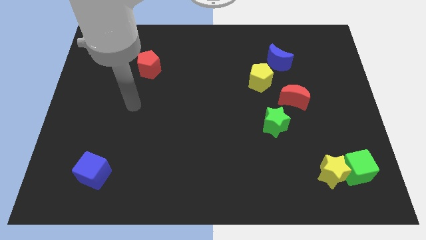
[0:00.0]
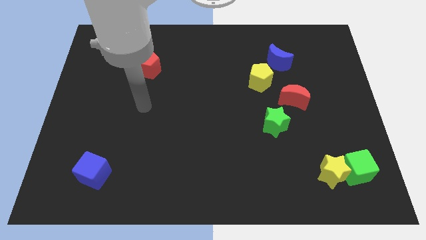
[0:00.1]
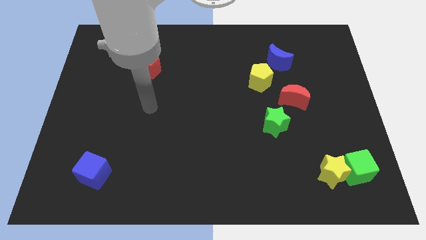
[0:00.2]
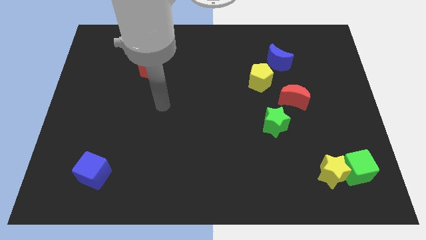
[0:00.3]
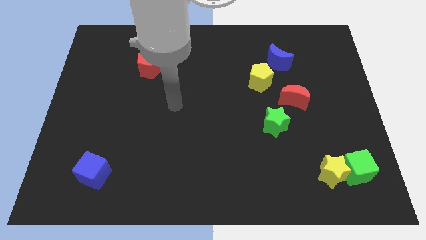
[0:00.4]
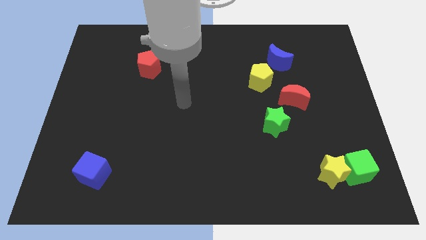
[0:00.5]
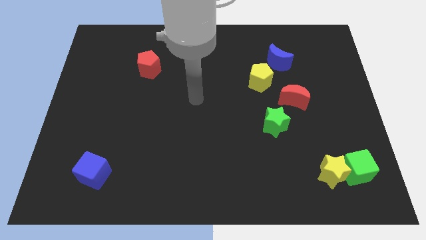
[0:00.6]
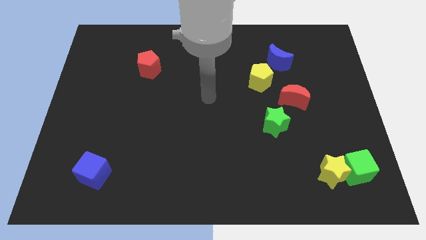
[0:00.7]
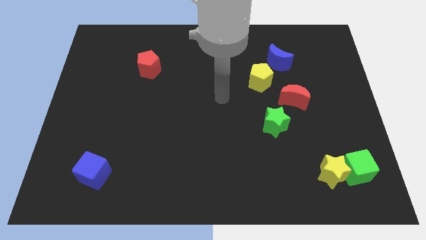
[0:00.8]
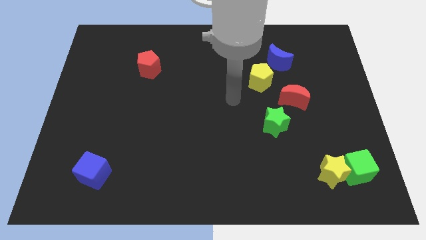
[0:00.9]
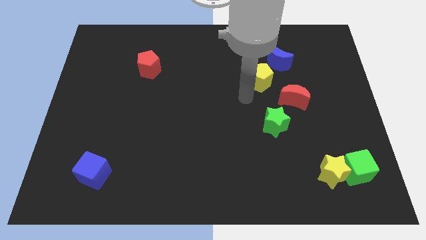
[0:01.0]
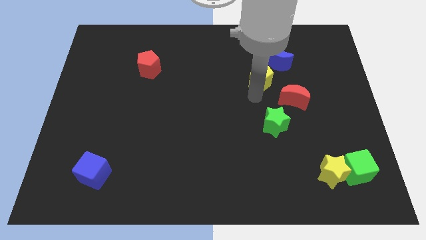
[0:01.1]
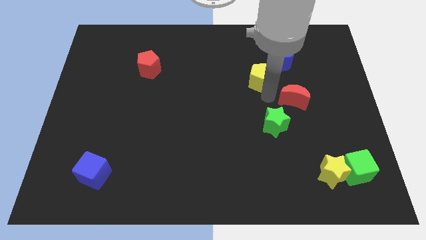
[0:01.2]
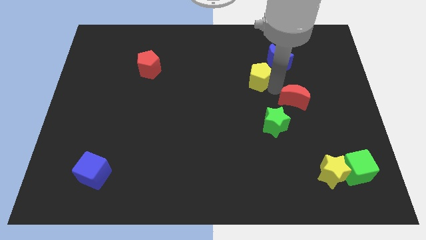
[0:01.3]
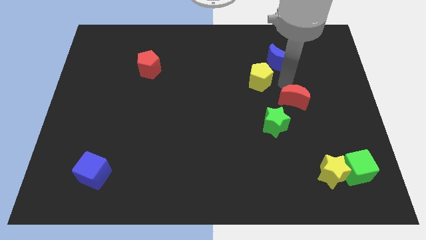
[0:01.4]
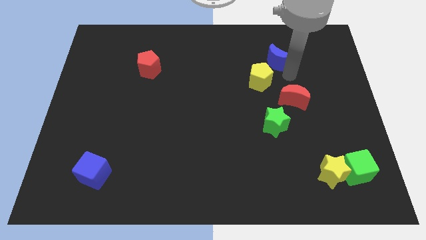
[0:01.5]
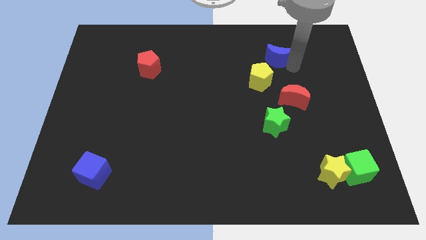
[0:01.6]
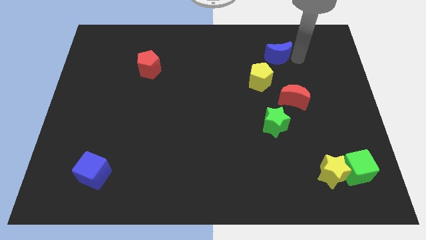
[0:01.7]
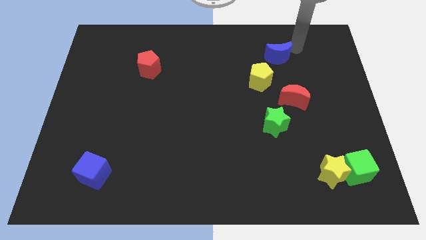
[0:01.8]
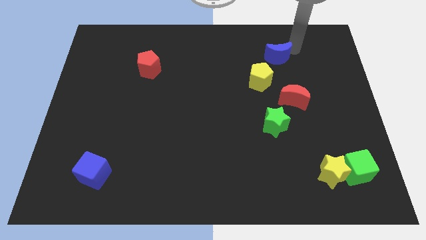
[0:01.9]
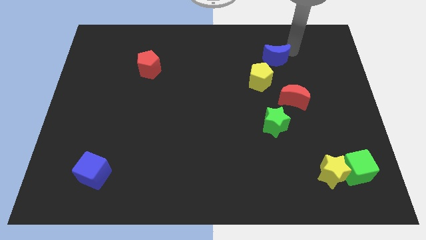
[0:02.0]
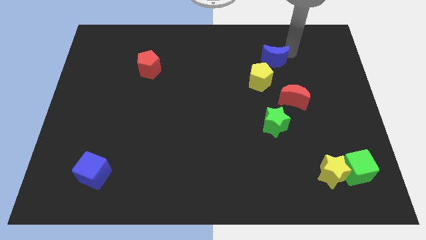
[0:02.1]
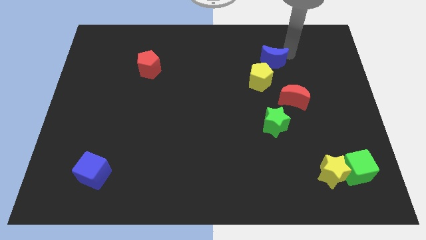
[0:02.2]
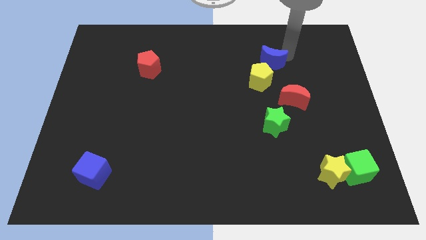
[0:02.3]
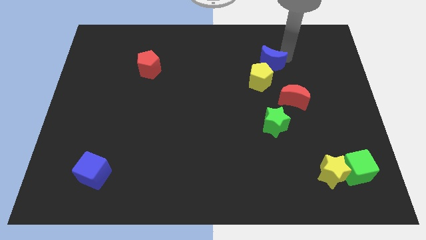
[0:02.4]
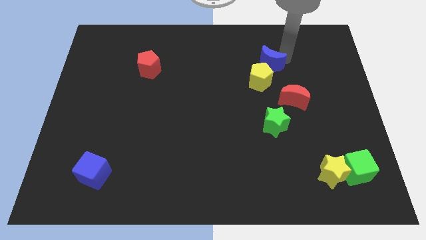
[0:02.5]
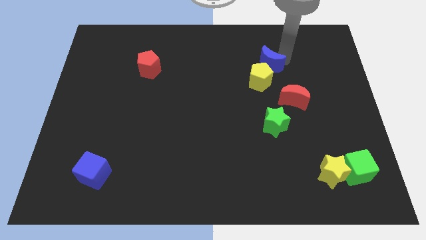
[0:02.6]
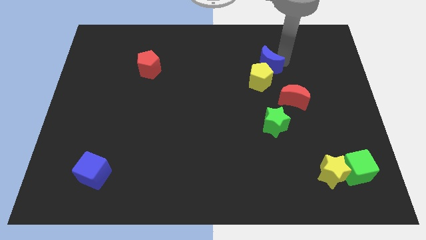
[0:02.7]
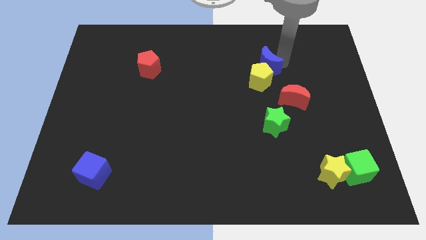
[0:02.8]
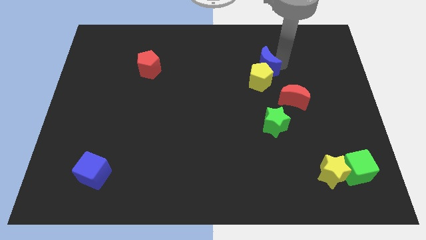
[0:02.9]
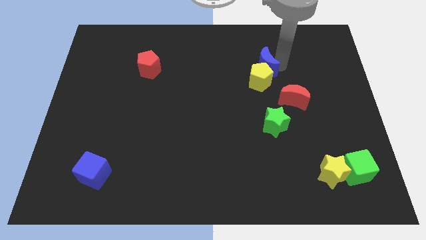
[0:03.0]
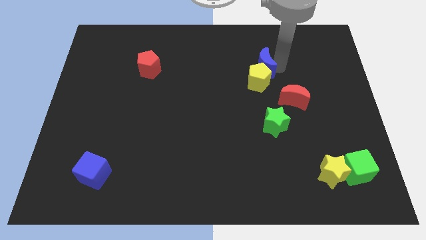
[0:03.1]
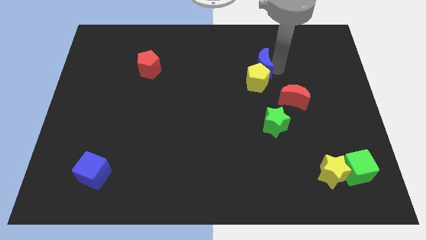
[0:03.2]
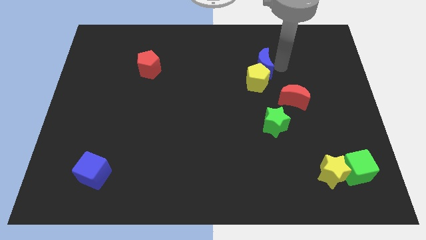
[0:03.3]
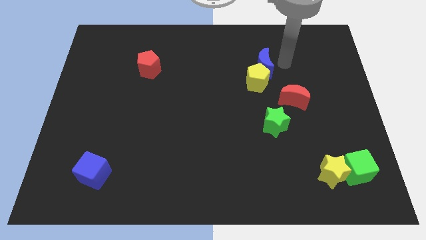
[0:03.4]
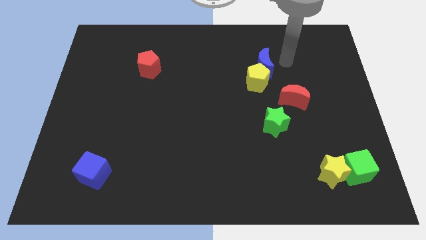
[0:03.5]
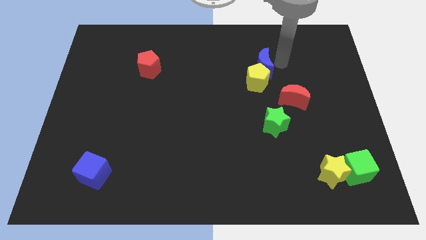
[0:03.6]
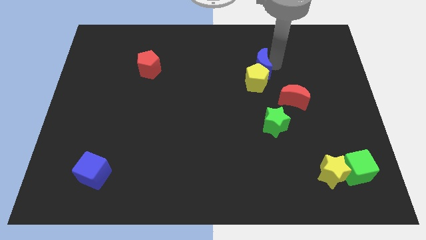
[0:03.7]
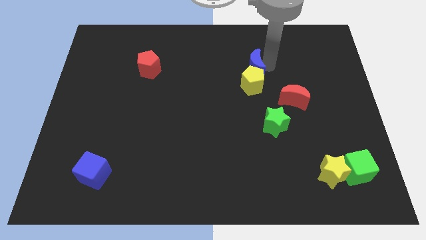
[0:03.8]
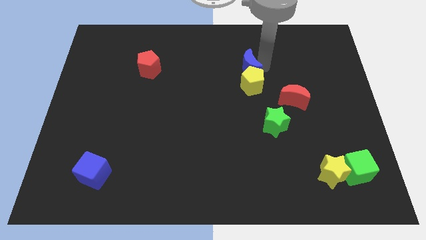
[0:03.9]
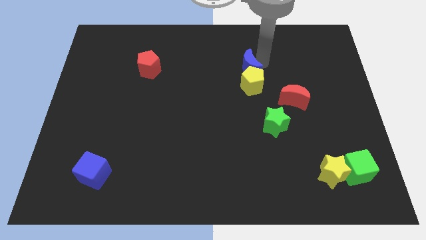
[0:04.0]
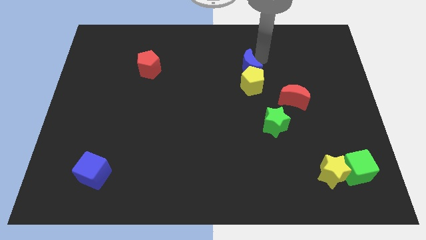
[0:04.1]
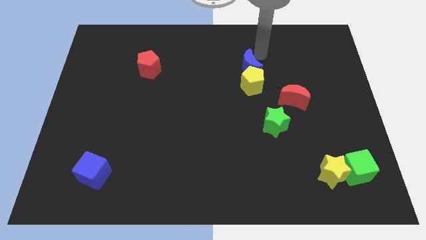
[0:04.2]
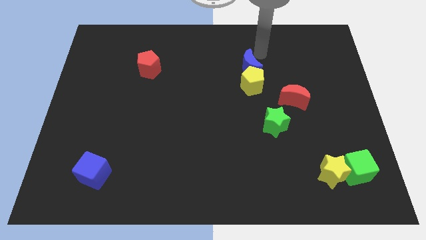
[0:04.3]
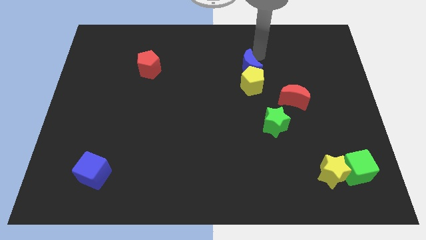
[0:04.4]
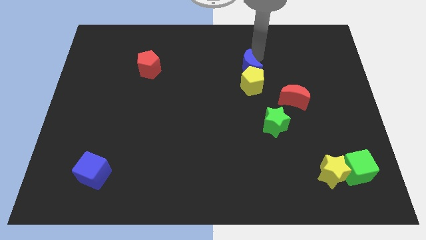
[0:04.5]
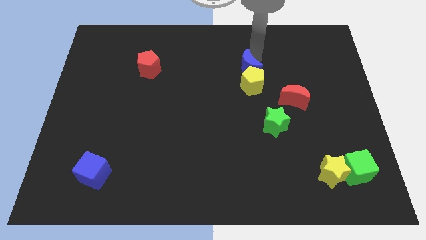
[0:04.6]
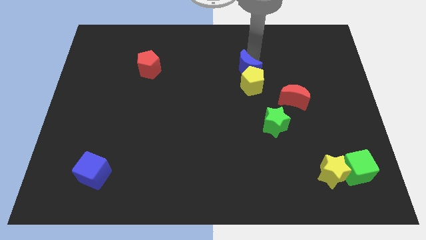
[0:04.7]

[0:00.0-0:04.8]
move the blue moon down and to the left diagonally a little

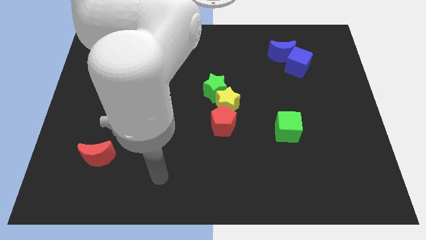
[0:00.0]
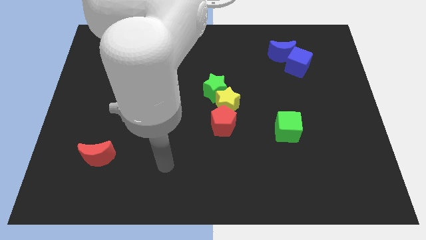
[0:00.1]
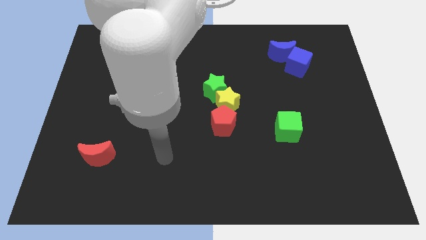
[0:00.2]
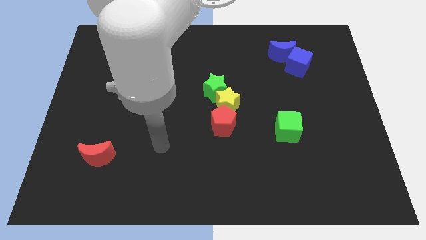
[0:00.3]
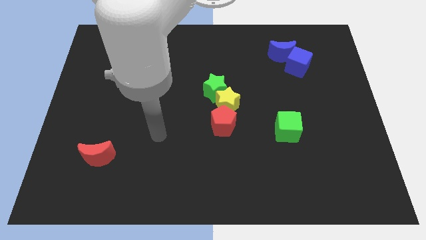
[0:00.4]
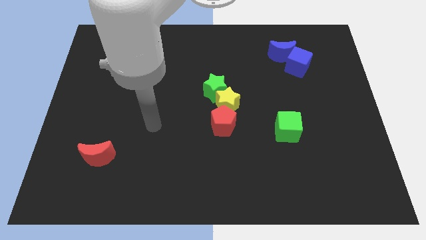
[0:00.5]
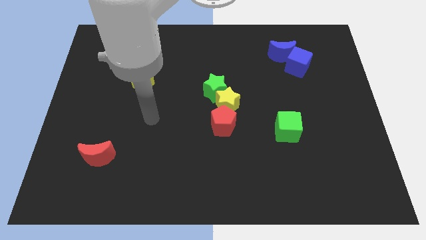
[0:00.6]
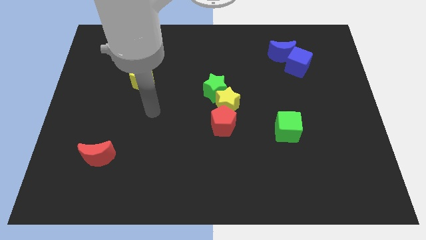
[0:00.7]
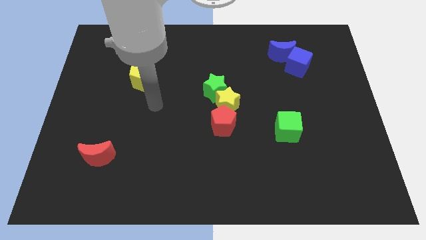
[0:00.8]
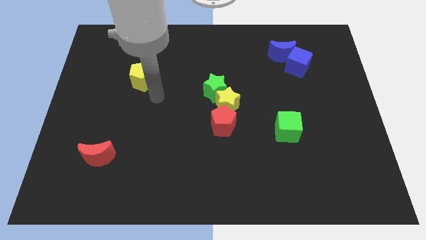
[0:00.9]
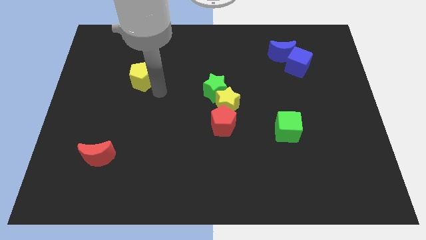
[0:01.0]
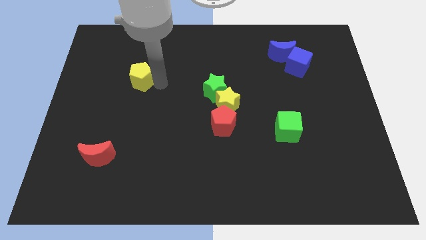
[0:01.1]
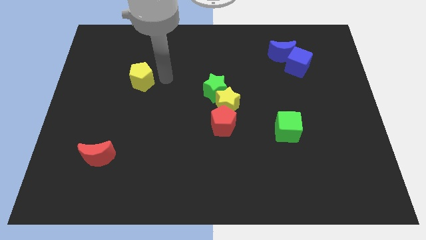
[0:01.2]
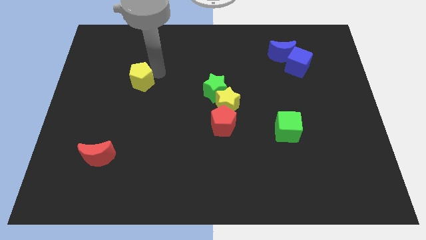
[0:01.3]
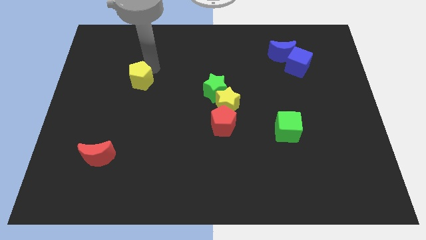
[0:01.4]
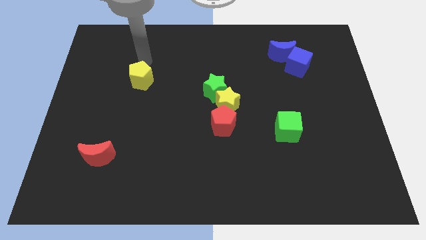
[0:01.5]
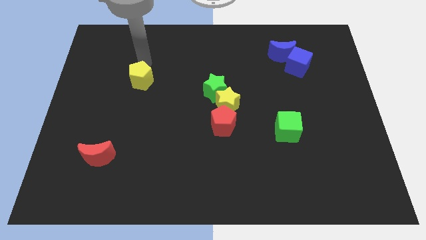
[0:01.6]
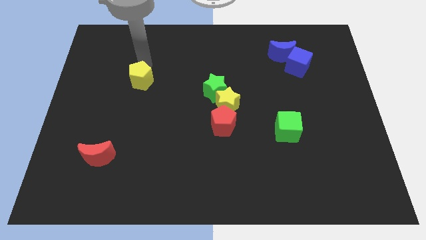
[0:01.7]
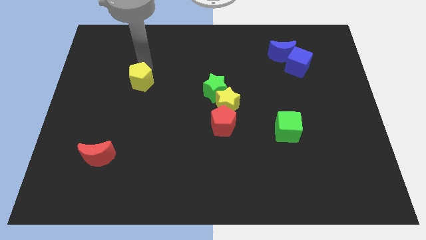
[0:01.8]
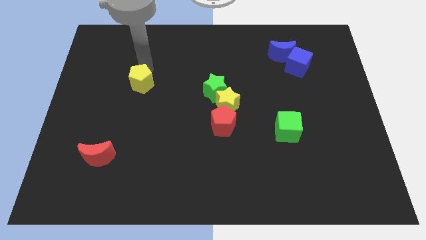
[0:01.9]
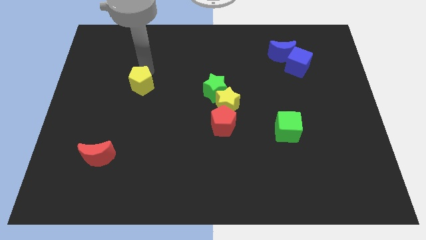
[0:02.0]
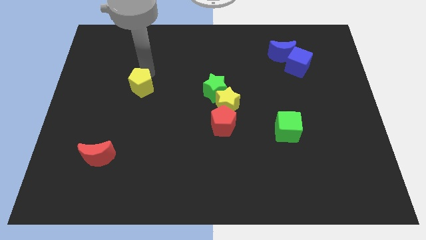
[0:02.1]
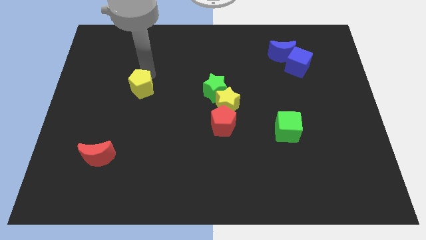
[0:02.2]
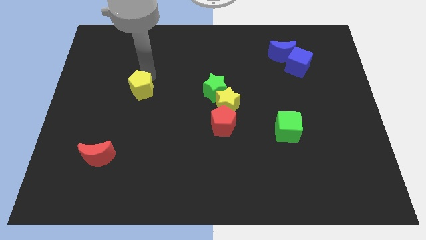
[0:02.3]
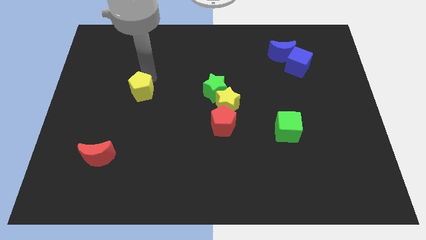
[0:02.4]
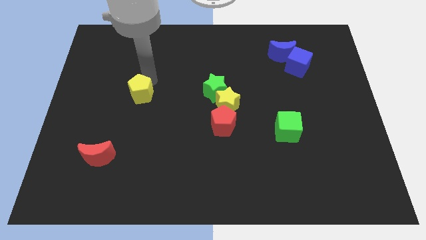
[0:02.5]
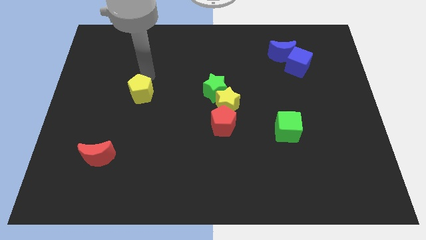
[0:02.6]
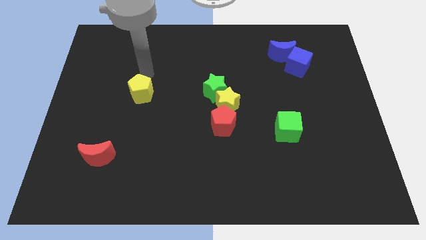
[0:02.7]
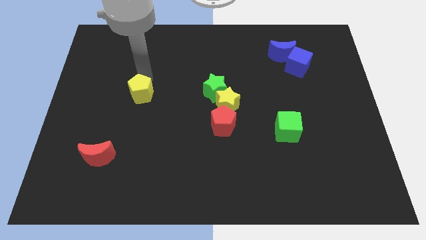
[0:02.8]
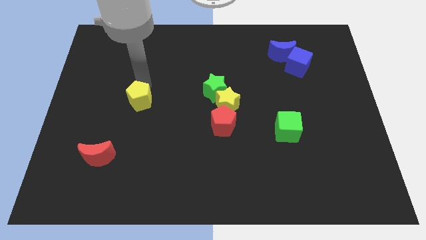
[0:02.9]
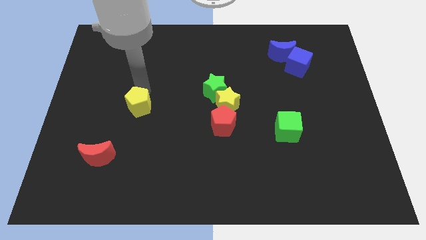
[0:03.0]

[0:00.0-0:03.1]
slightly push the yellow pentagon down

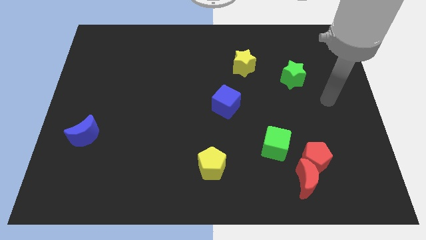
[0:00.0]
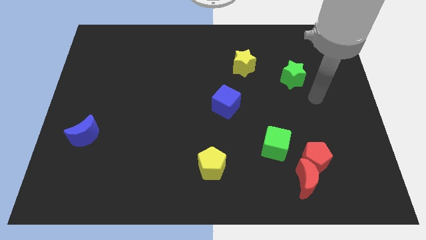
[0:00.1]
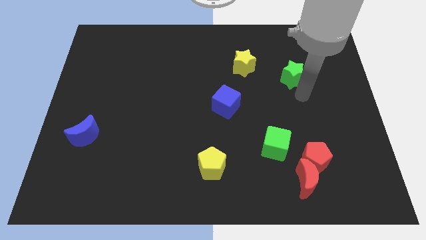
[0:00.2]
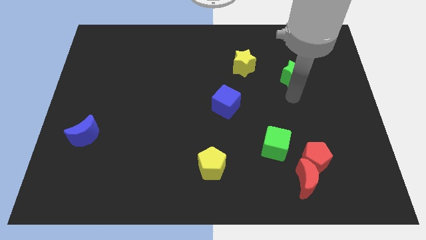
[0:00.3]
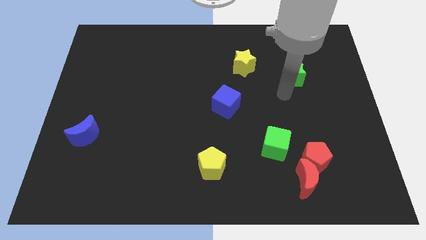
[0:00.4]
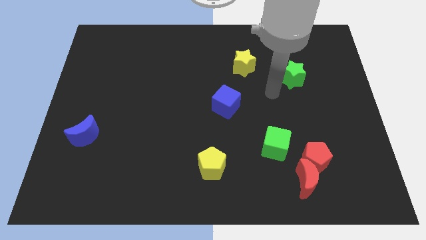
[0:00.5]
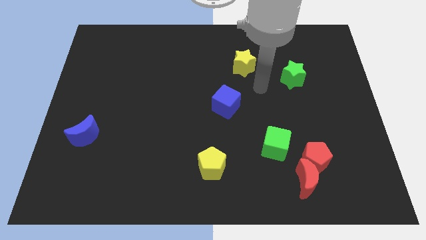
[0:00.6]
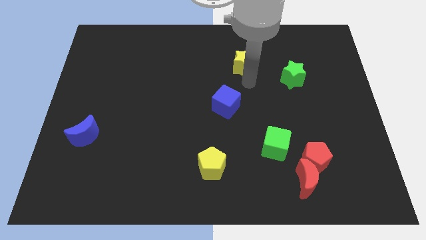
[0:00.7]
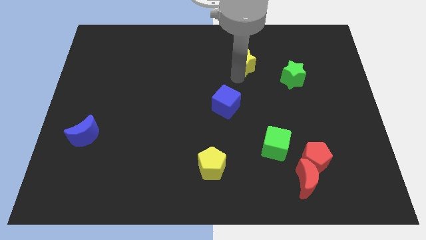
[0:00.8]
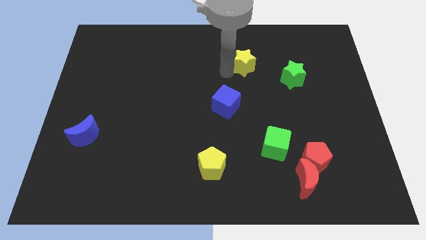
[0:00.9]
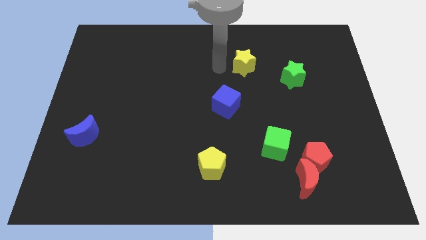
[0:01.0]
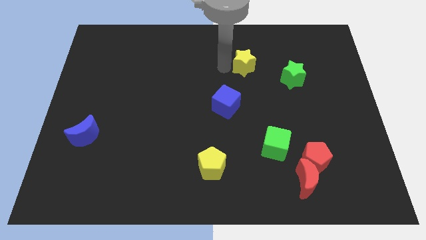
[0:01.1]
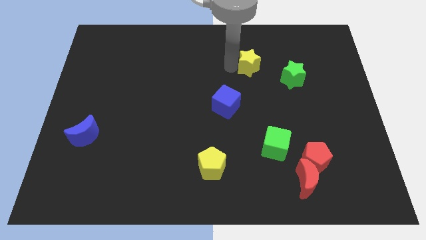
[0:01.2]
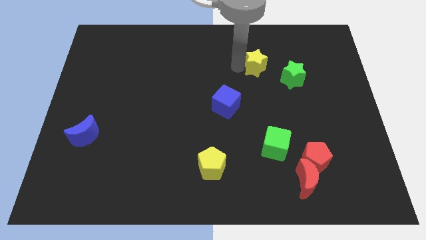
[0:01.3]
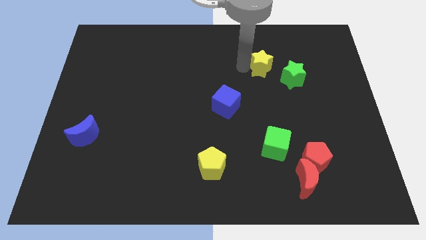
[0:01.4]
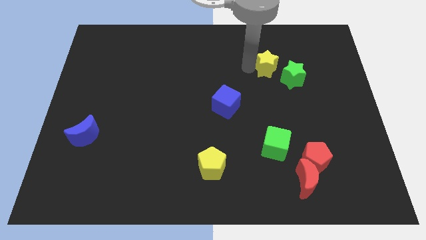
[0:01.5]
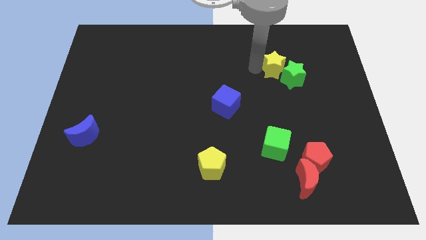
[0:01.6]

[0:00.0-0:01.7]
slightly push the yellow star right
